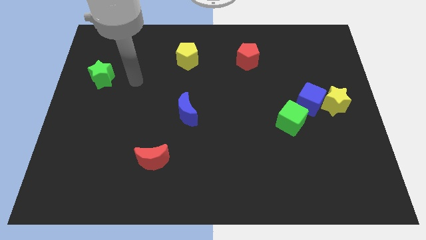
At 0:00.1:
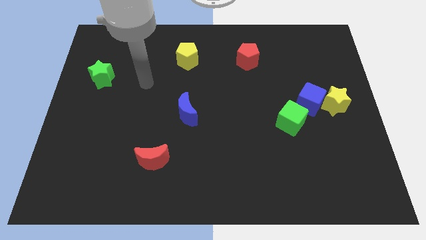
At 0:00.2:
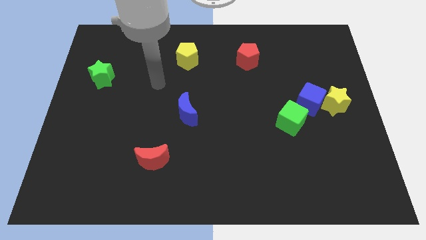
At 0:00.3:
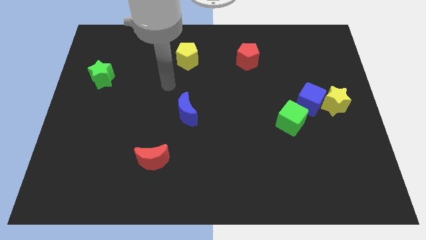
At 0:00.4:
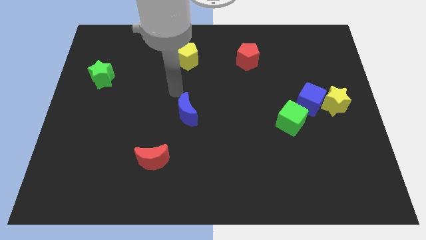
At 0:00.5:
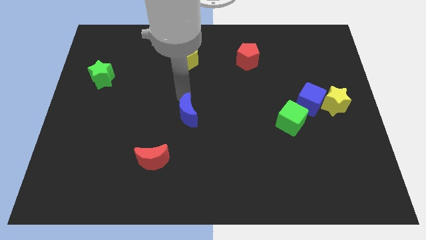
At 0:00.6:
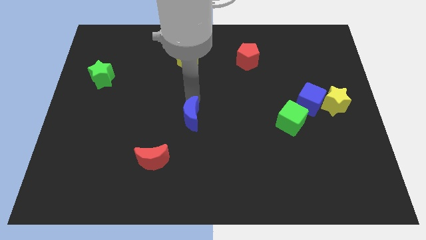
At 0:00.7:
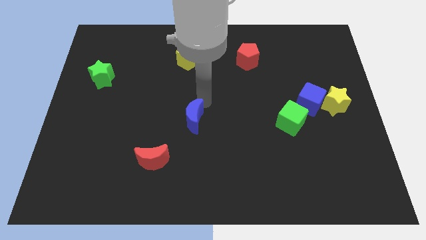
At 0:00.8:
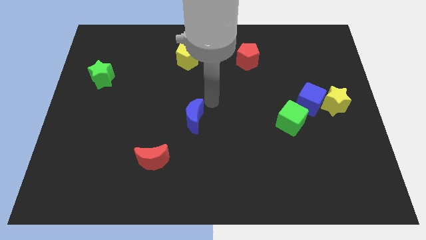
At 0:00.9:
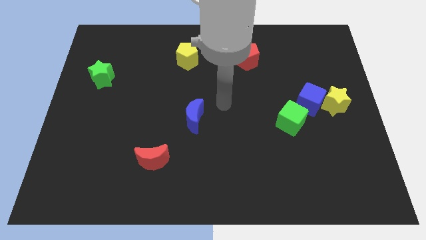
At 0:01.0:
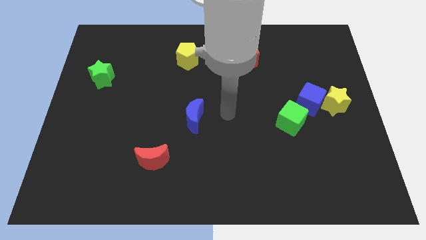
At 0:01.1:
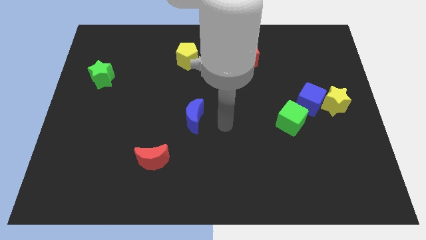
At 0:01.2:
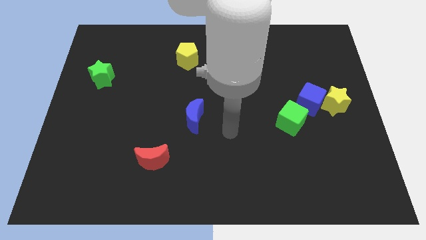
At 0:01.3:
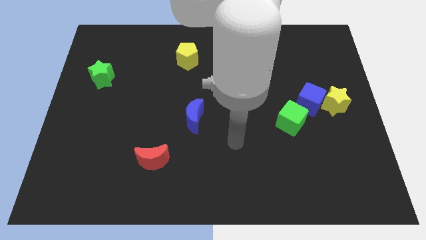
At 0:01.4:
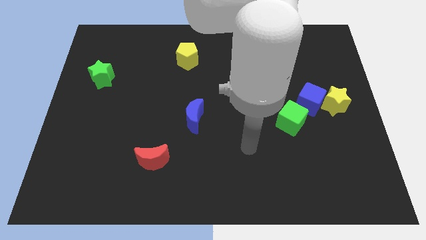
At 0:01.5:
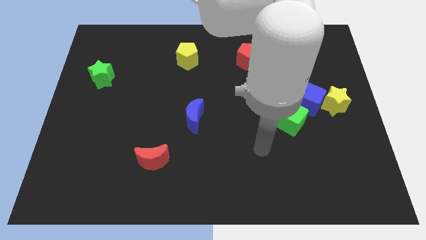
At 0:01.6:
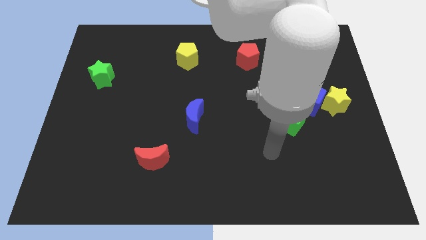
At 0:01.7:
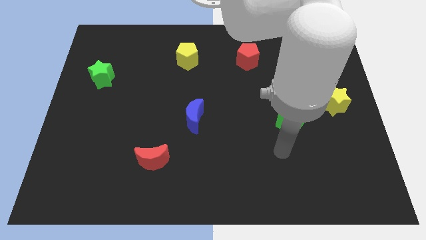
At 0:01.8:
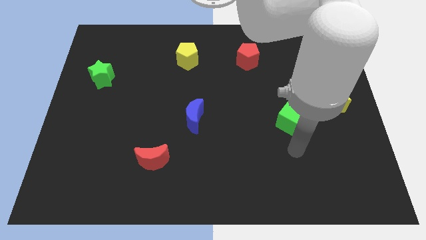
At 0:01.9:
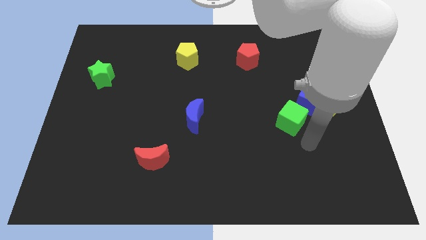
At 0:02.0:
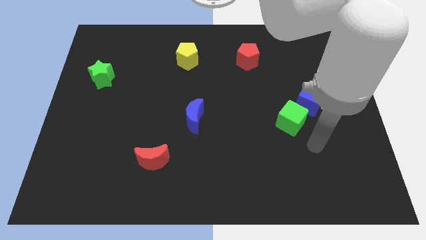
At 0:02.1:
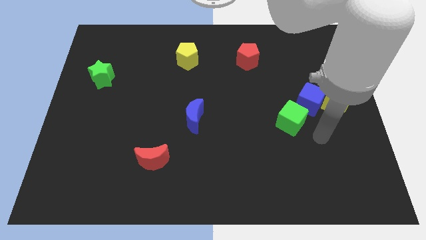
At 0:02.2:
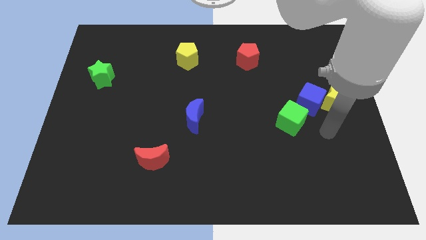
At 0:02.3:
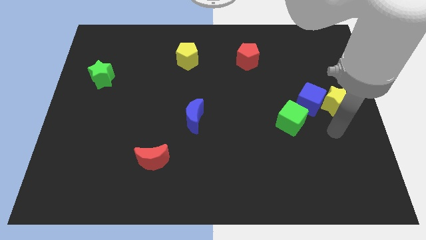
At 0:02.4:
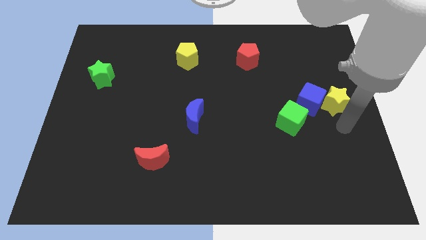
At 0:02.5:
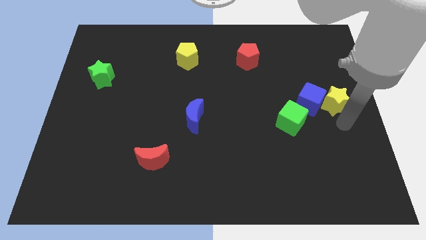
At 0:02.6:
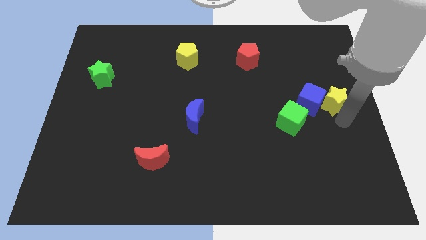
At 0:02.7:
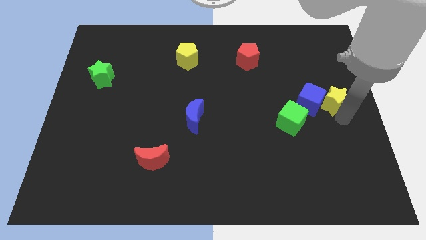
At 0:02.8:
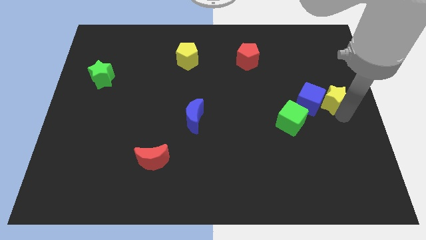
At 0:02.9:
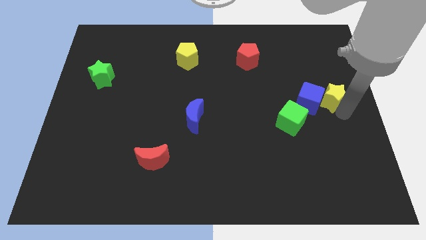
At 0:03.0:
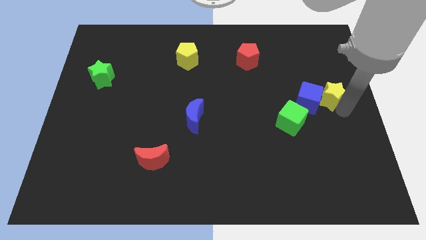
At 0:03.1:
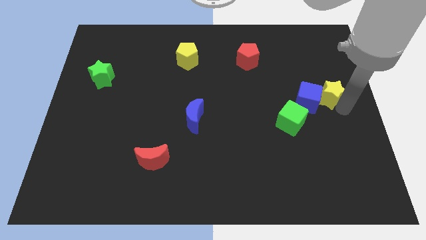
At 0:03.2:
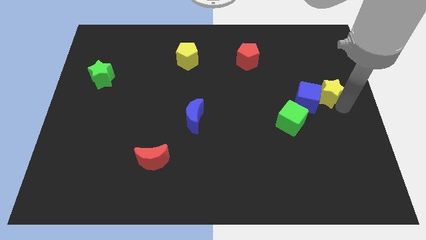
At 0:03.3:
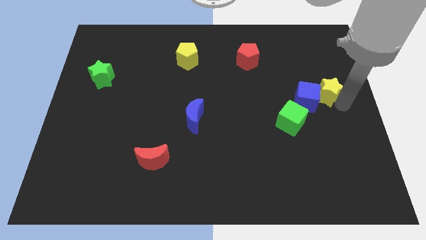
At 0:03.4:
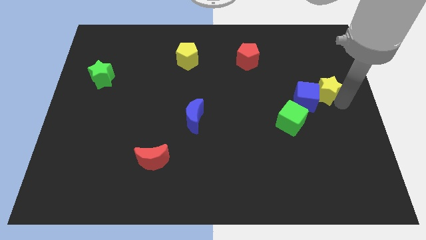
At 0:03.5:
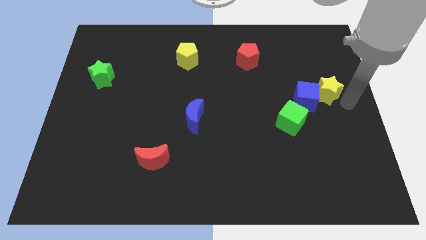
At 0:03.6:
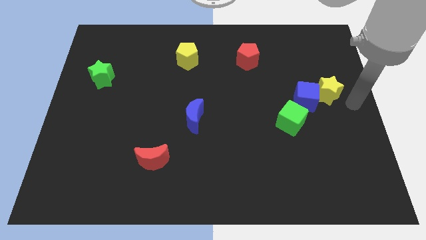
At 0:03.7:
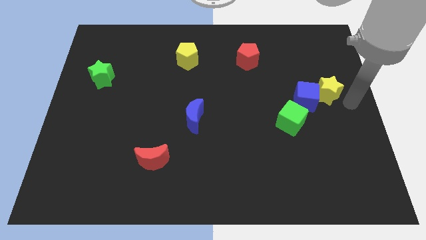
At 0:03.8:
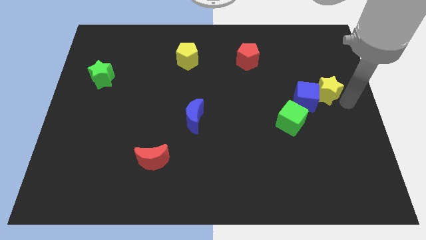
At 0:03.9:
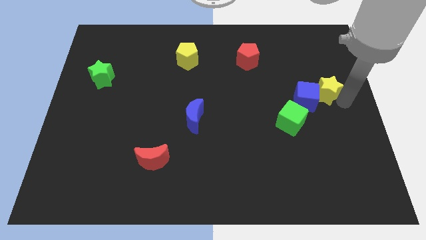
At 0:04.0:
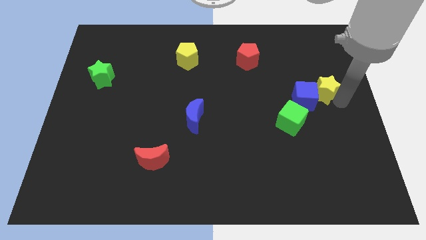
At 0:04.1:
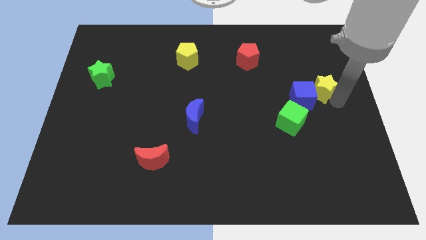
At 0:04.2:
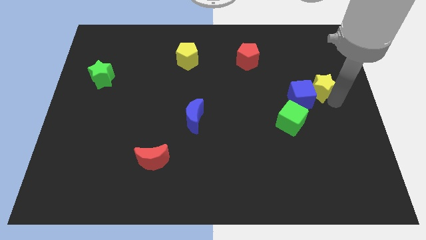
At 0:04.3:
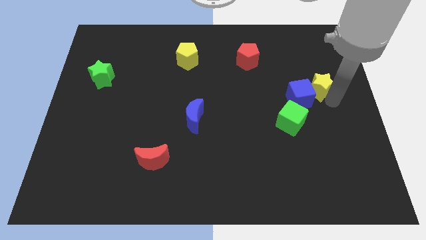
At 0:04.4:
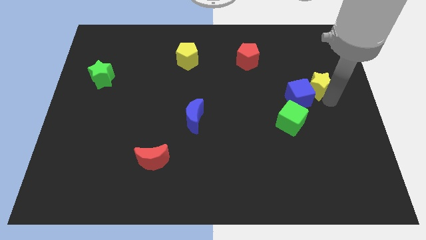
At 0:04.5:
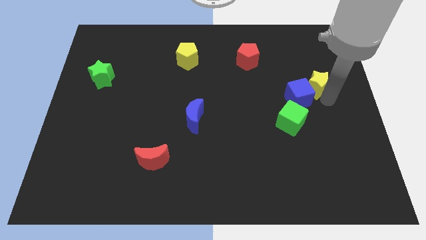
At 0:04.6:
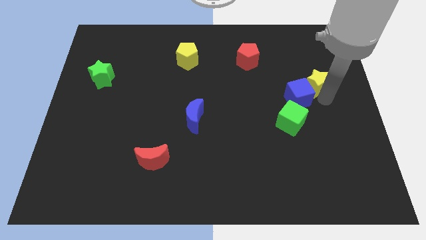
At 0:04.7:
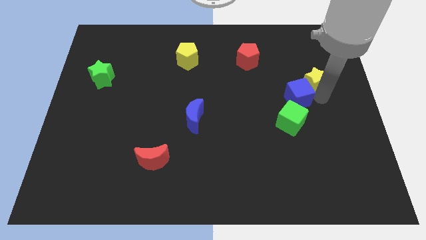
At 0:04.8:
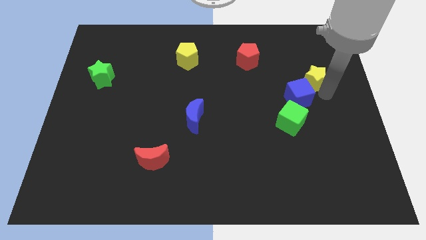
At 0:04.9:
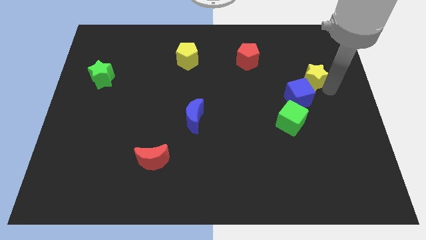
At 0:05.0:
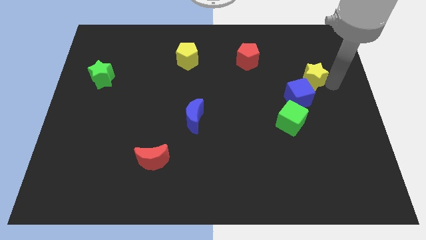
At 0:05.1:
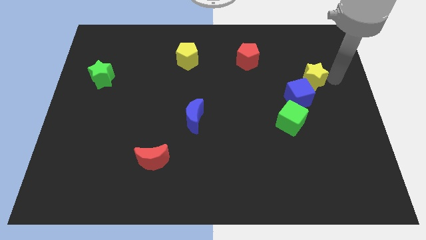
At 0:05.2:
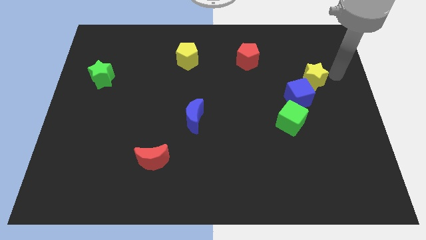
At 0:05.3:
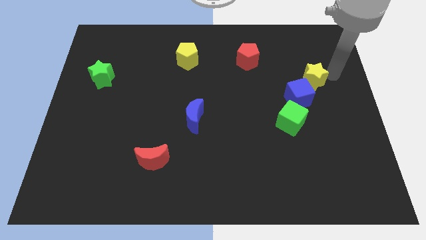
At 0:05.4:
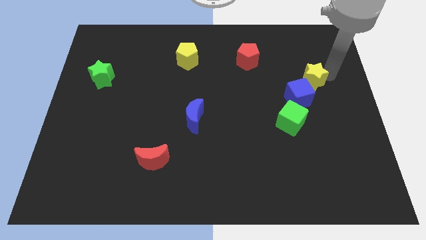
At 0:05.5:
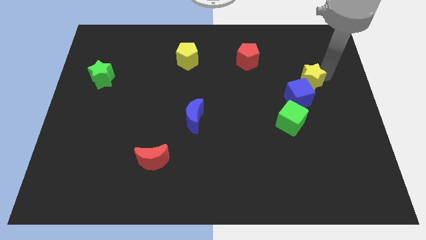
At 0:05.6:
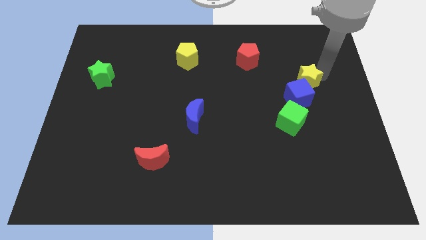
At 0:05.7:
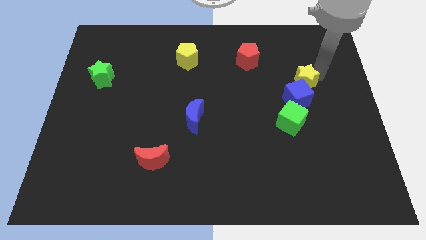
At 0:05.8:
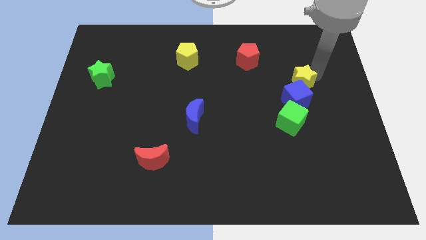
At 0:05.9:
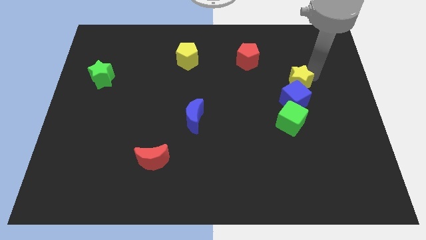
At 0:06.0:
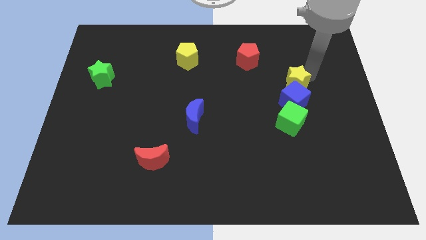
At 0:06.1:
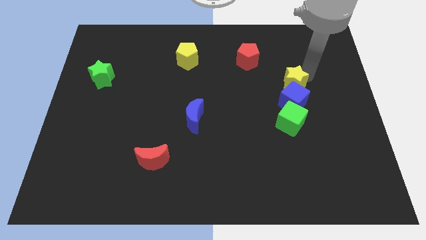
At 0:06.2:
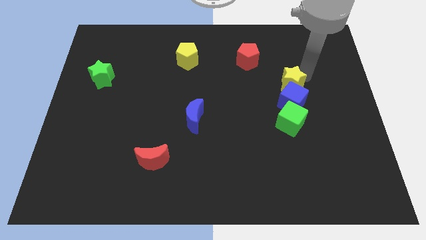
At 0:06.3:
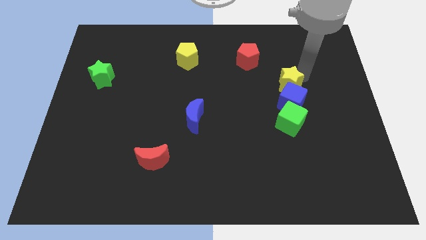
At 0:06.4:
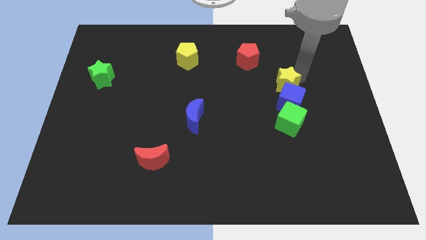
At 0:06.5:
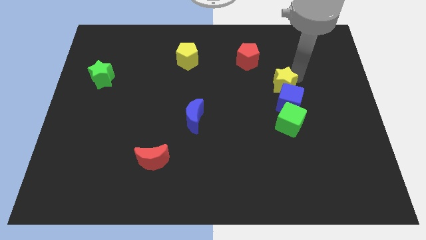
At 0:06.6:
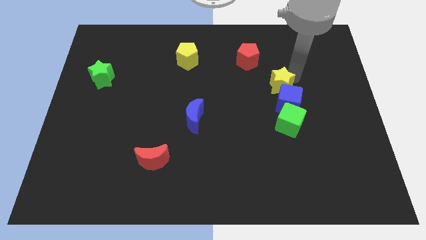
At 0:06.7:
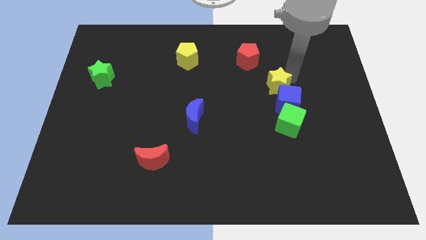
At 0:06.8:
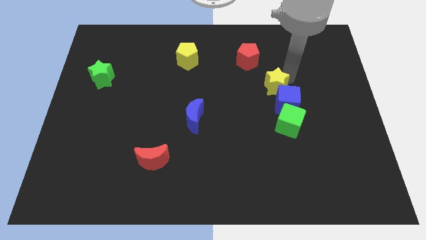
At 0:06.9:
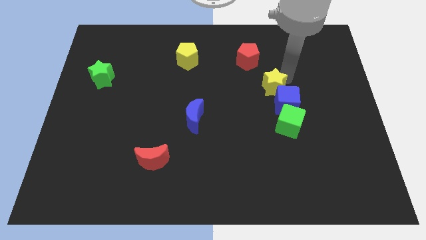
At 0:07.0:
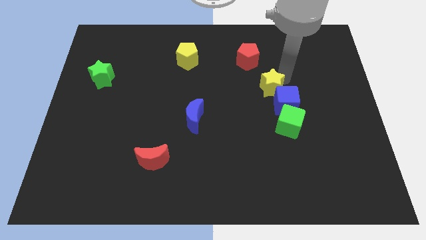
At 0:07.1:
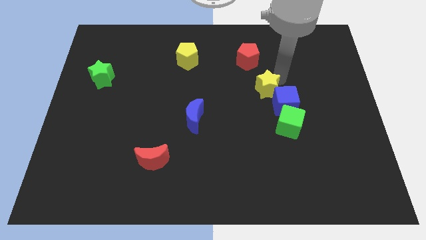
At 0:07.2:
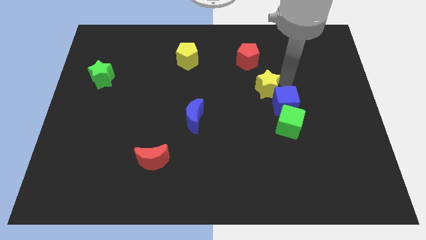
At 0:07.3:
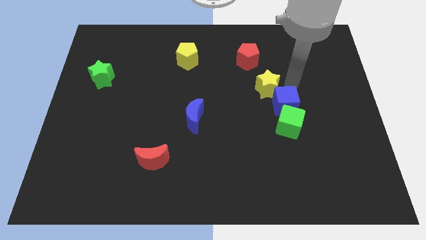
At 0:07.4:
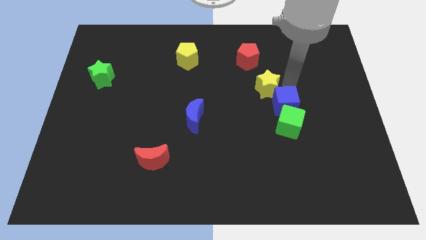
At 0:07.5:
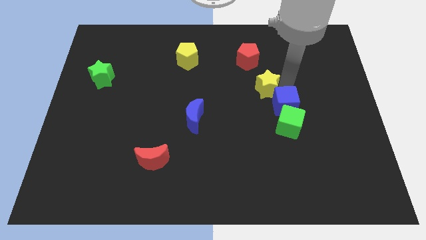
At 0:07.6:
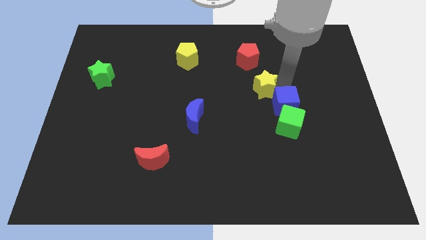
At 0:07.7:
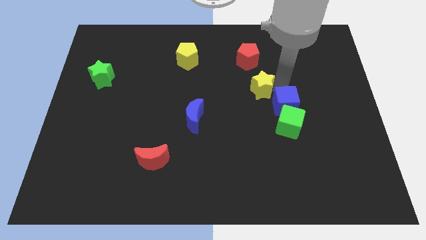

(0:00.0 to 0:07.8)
slide the yellow star to the middle
